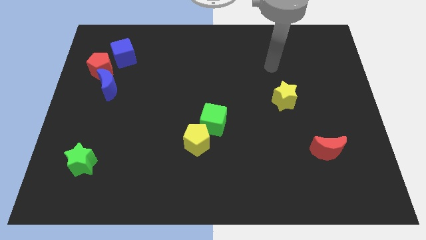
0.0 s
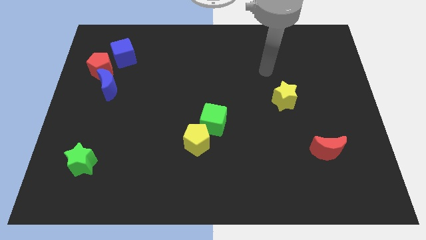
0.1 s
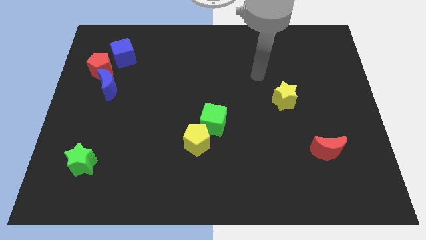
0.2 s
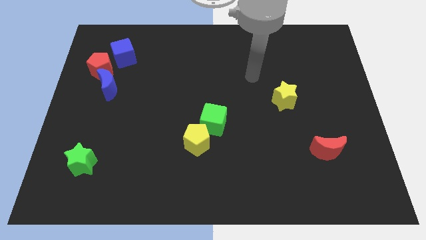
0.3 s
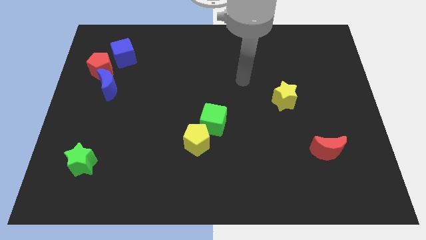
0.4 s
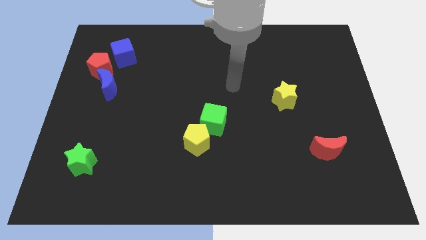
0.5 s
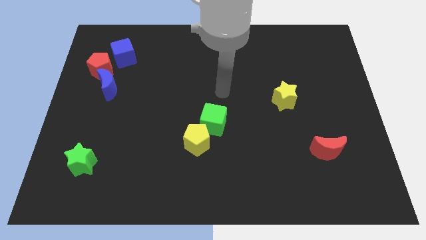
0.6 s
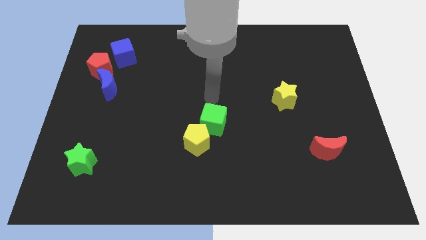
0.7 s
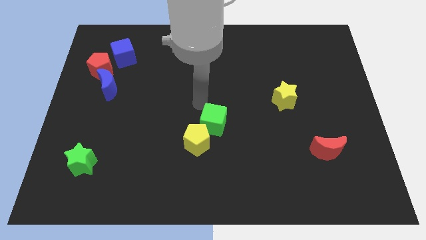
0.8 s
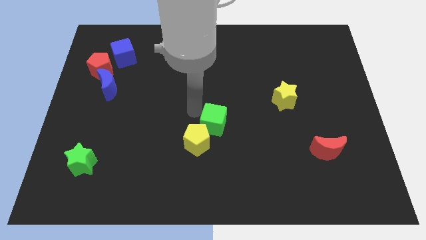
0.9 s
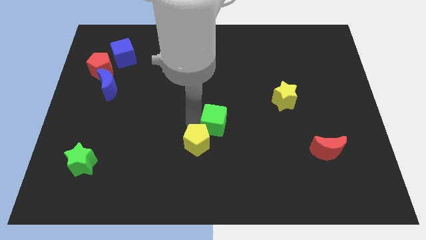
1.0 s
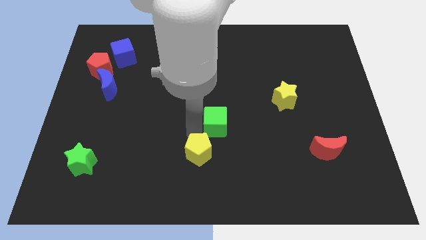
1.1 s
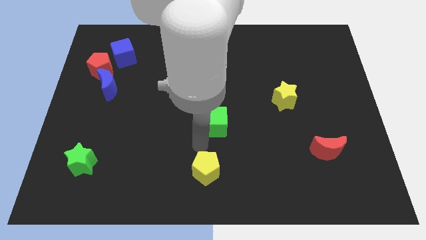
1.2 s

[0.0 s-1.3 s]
move the green cube away from the yellow pentagon

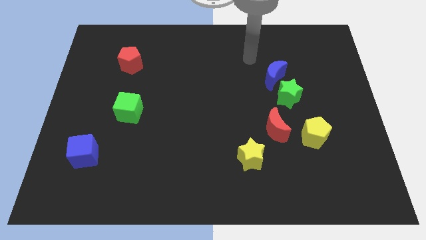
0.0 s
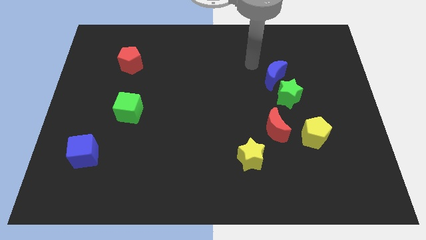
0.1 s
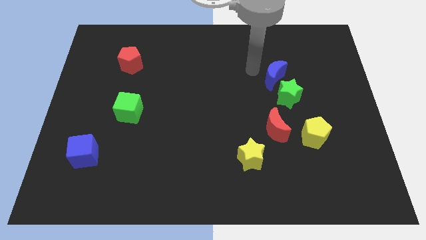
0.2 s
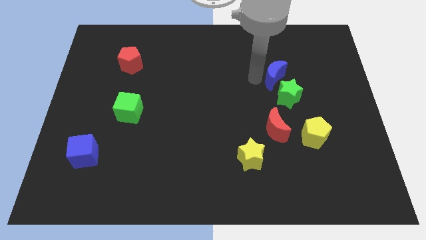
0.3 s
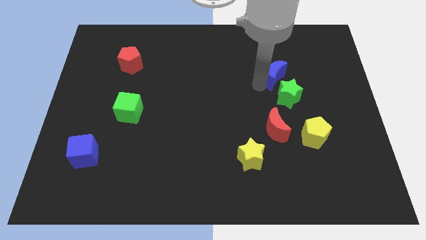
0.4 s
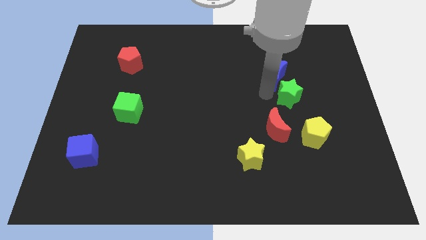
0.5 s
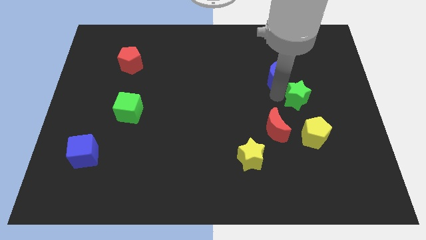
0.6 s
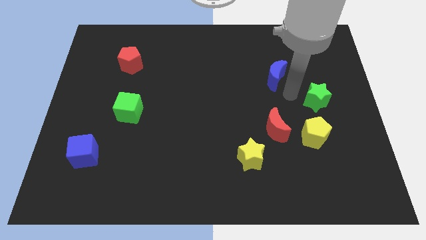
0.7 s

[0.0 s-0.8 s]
separate the blue moon from the green star

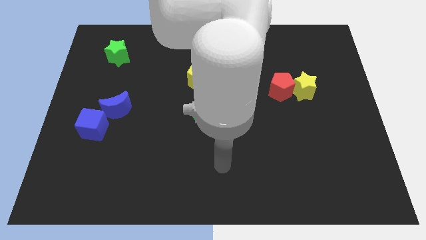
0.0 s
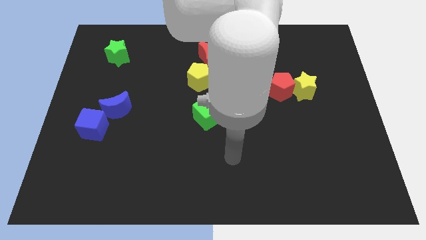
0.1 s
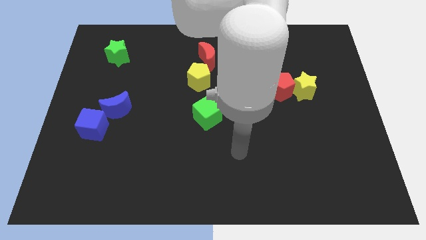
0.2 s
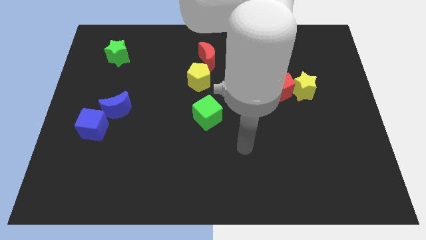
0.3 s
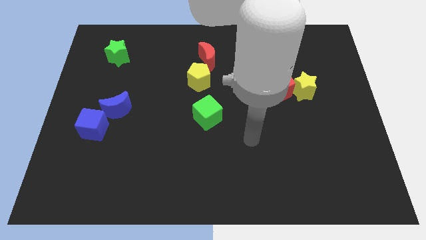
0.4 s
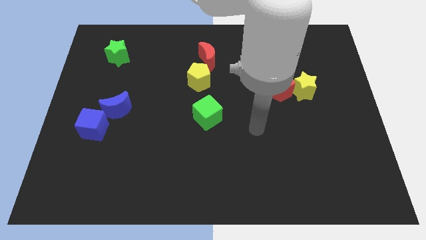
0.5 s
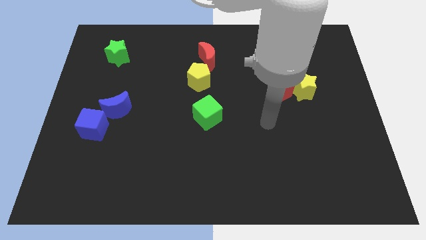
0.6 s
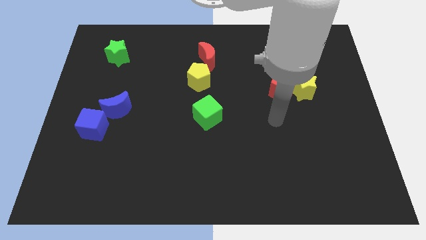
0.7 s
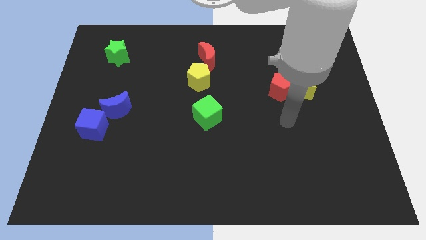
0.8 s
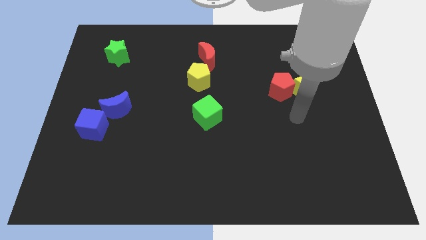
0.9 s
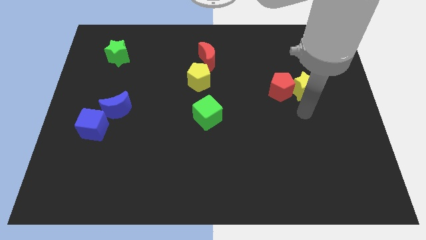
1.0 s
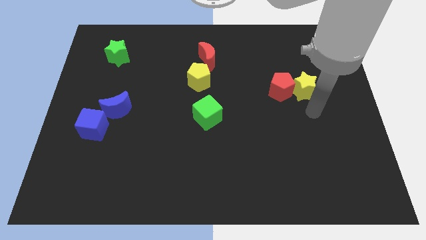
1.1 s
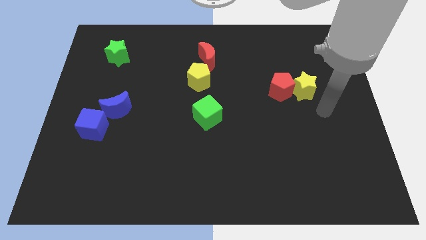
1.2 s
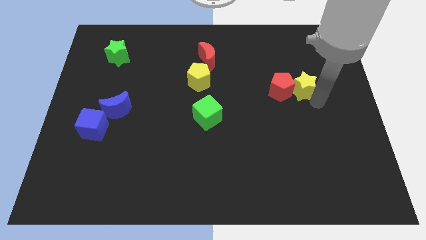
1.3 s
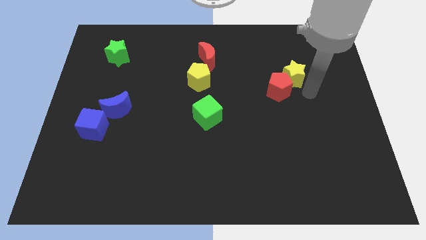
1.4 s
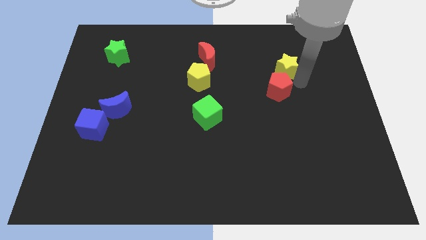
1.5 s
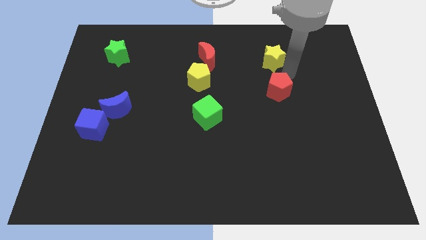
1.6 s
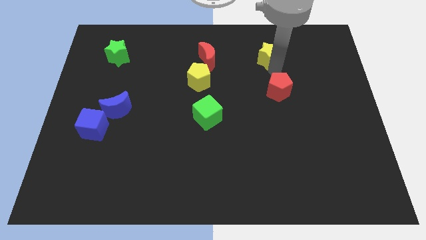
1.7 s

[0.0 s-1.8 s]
move the red pentagon away from the yellow star

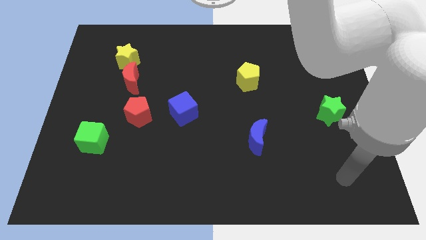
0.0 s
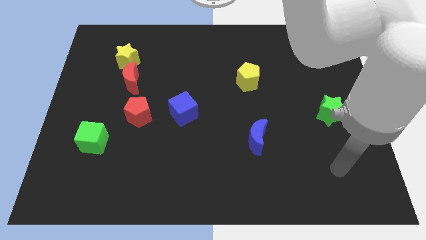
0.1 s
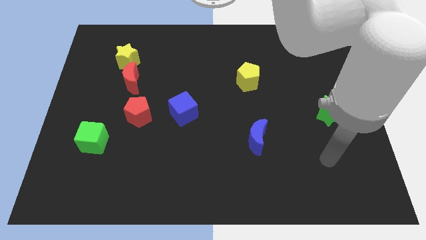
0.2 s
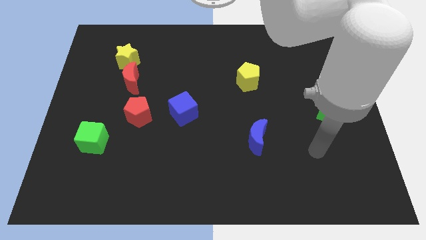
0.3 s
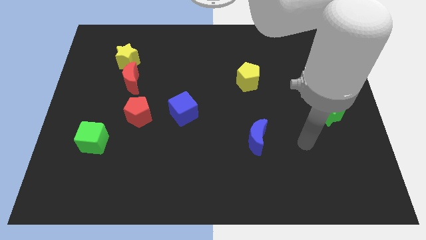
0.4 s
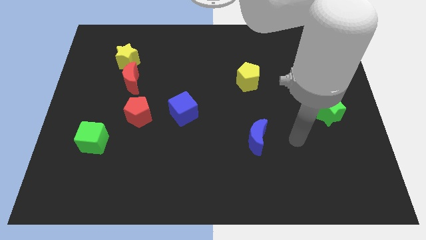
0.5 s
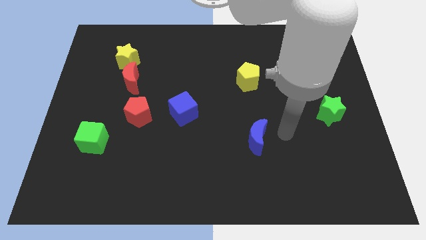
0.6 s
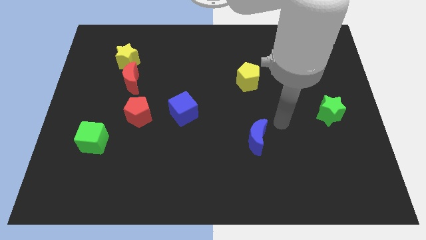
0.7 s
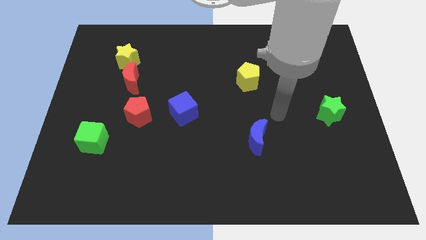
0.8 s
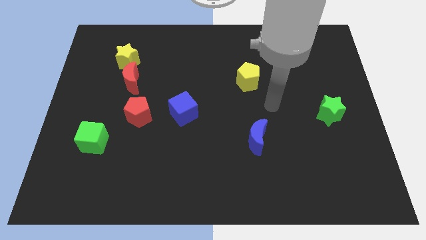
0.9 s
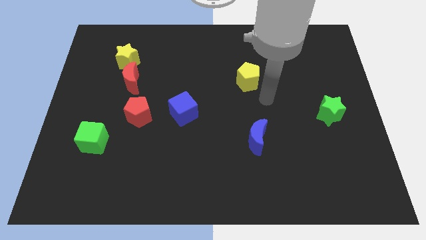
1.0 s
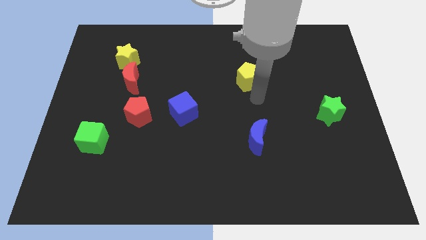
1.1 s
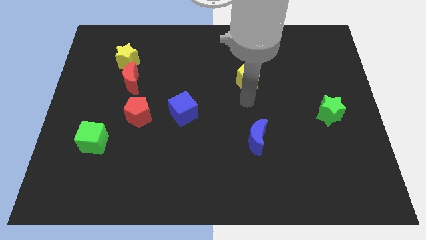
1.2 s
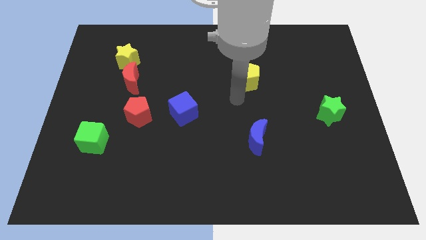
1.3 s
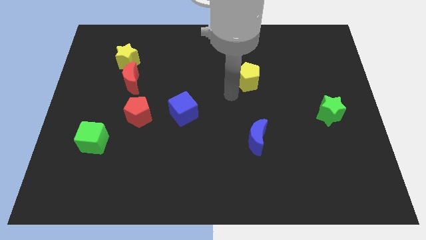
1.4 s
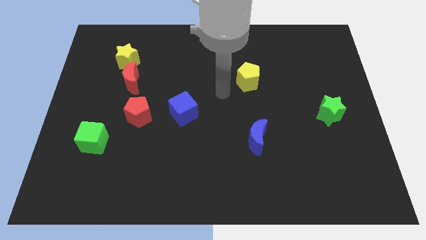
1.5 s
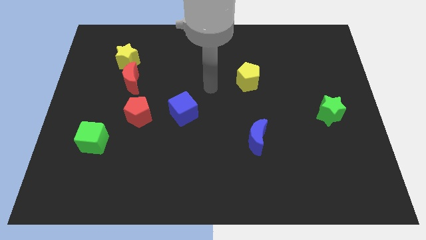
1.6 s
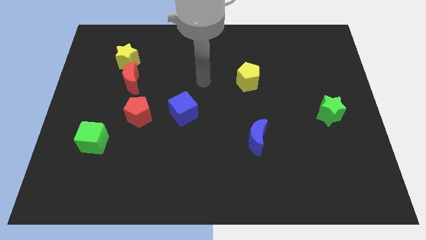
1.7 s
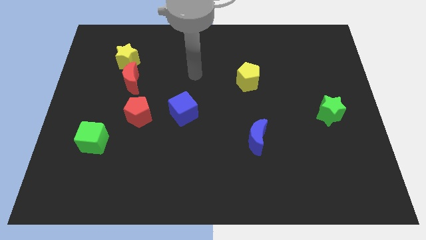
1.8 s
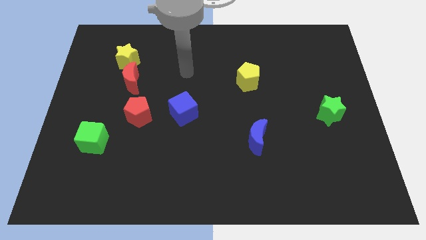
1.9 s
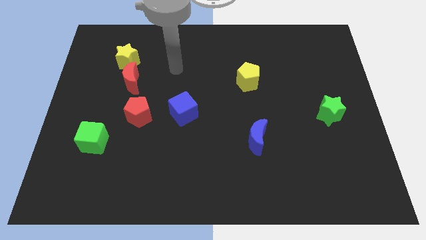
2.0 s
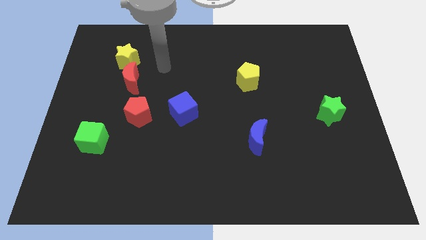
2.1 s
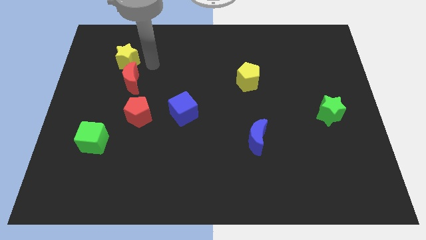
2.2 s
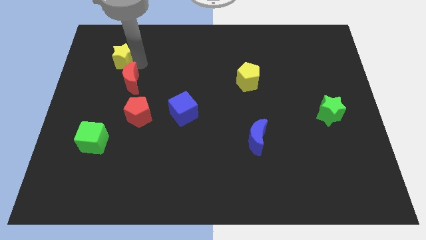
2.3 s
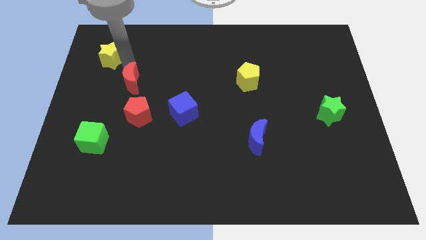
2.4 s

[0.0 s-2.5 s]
pull the red moon apart from the yellow star

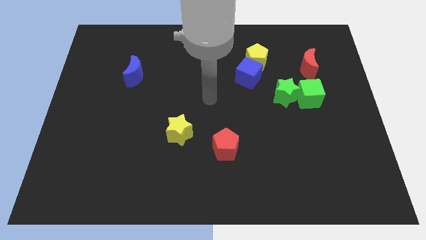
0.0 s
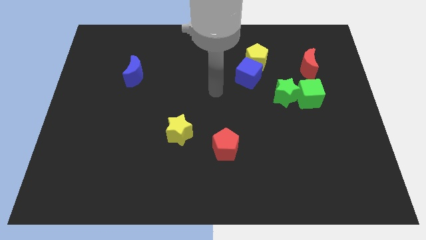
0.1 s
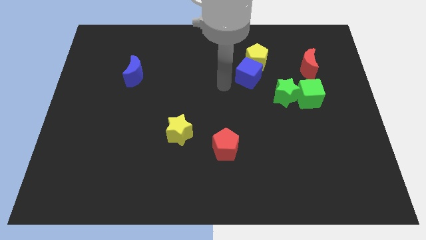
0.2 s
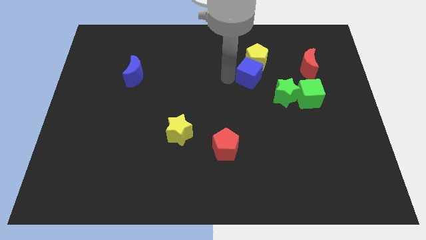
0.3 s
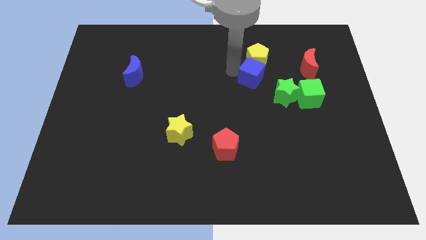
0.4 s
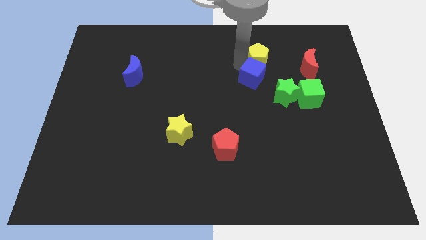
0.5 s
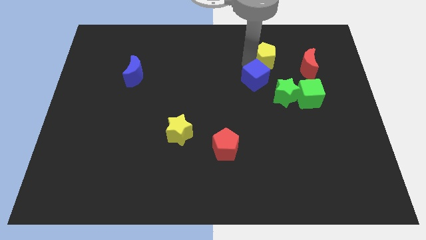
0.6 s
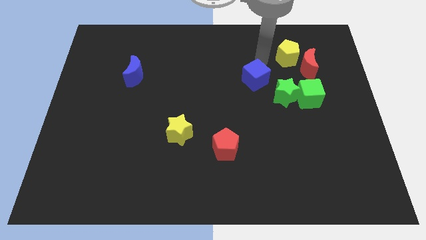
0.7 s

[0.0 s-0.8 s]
separate the blue cube from the yellow pentagon

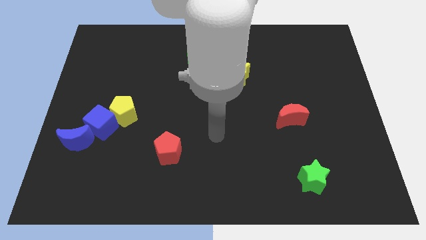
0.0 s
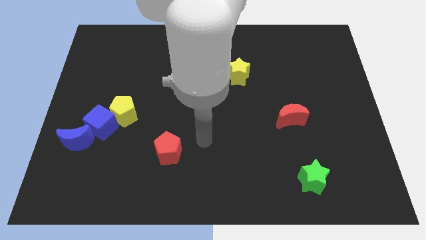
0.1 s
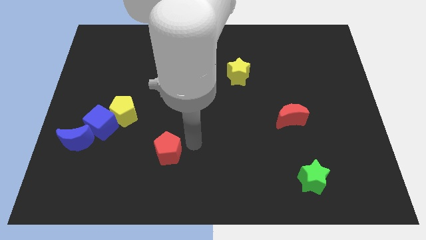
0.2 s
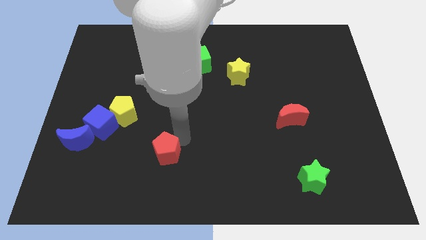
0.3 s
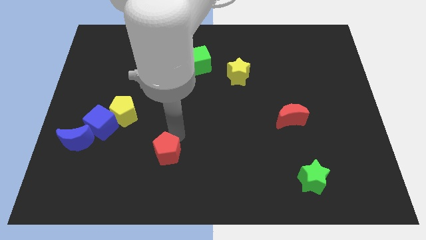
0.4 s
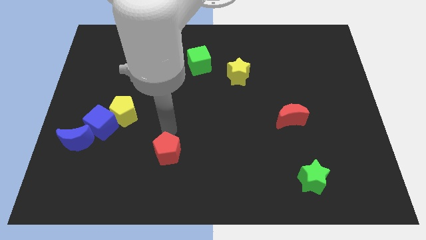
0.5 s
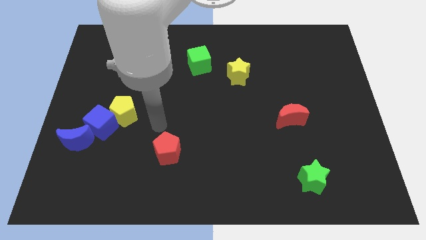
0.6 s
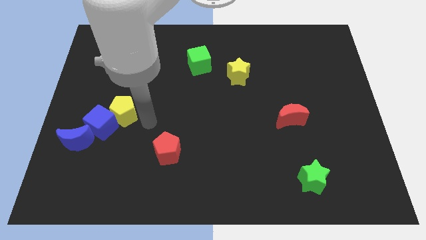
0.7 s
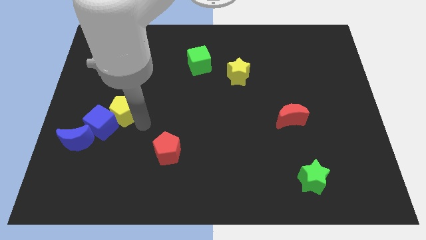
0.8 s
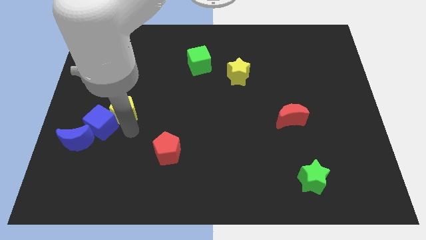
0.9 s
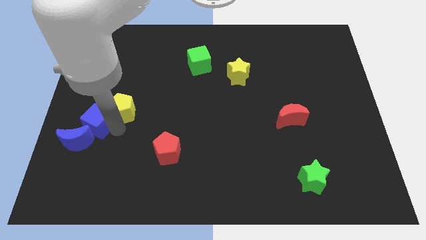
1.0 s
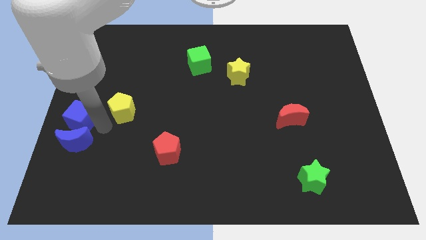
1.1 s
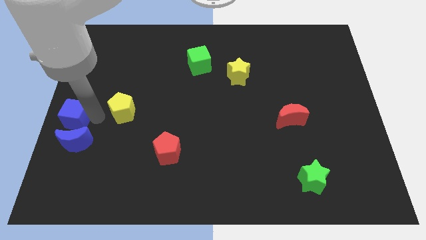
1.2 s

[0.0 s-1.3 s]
move the yellow pentagon away from the blue cube

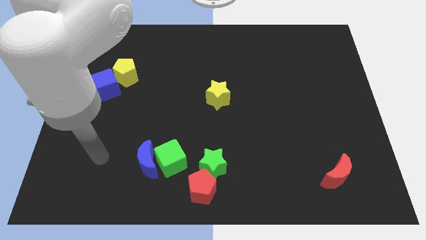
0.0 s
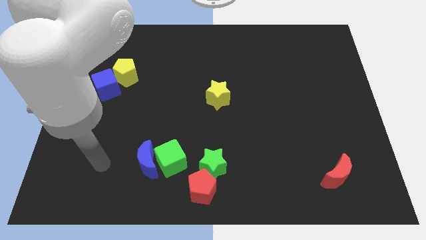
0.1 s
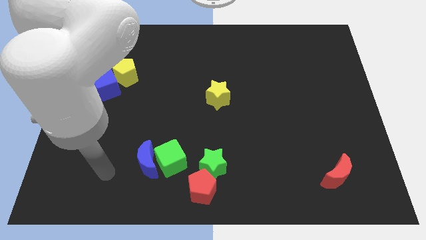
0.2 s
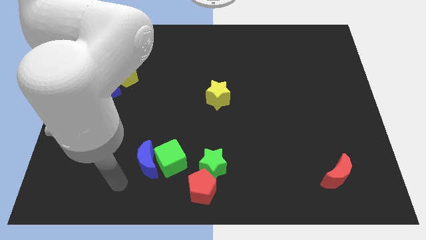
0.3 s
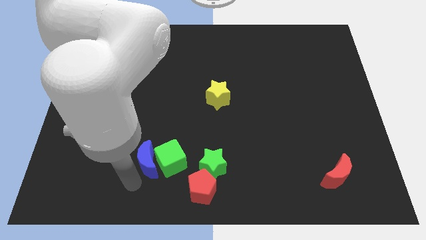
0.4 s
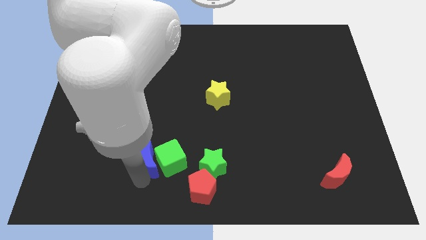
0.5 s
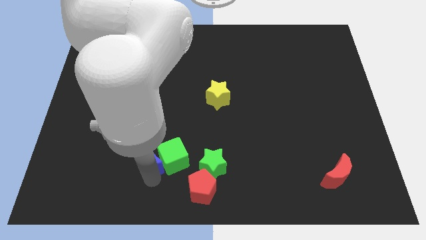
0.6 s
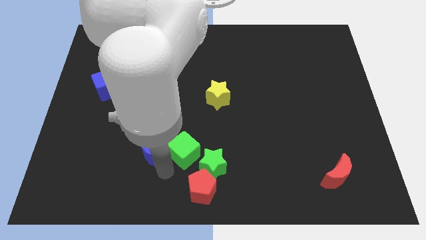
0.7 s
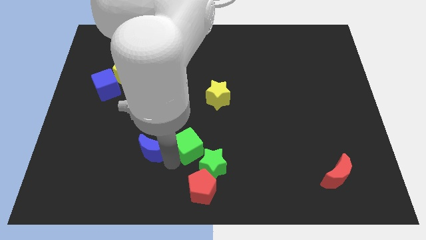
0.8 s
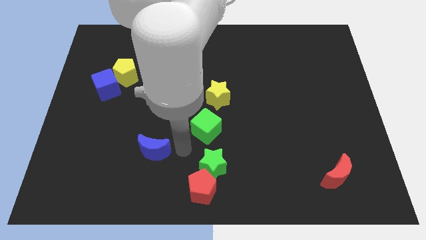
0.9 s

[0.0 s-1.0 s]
separate the blue moon from the green cube

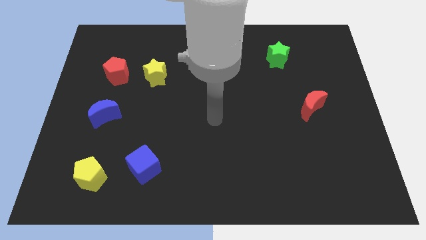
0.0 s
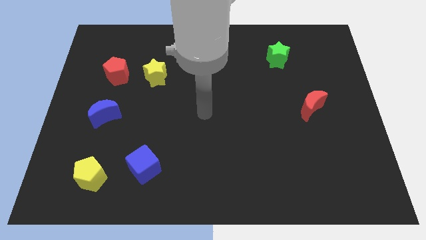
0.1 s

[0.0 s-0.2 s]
separate the red pentagon from the yellow star
